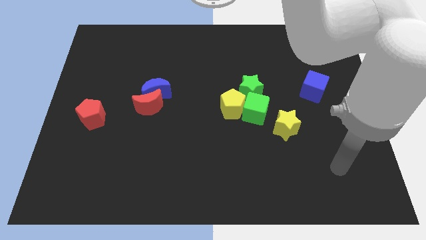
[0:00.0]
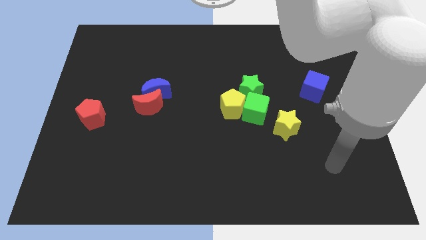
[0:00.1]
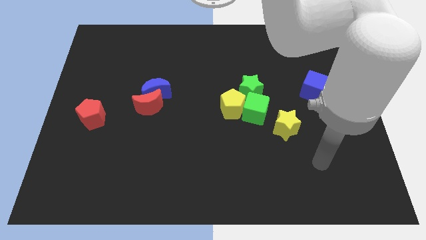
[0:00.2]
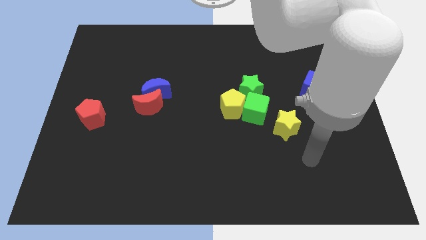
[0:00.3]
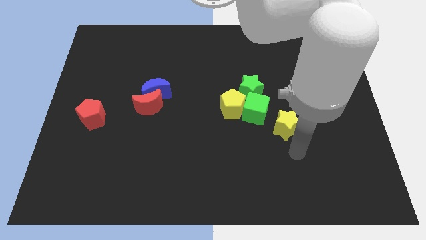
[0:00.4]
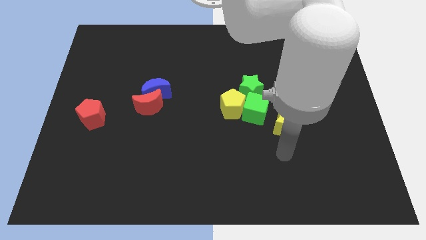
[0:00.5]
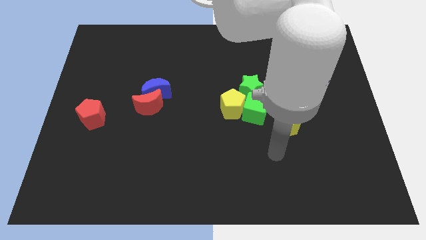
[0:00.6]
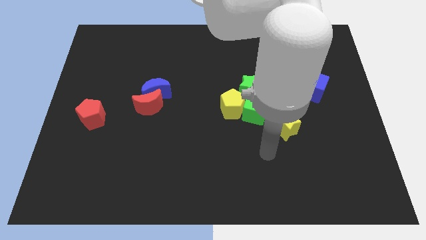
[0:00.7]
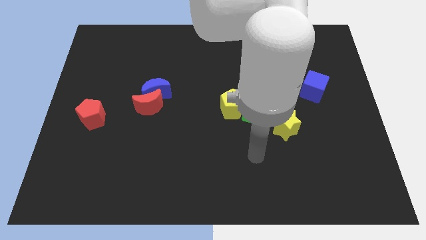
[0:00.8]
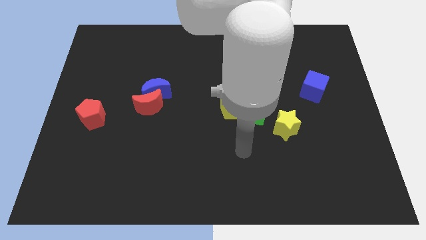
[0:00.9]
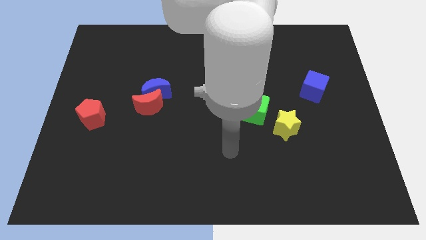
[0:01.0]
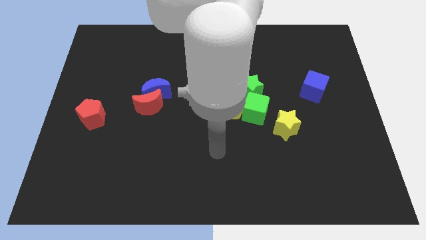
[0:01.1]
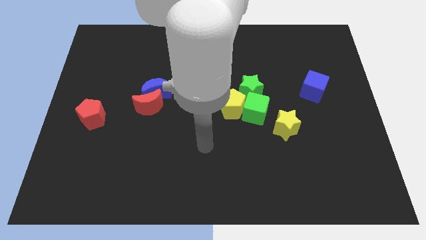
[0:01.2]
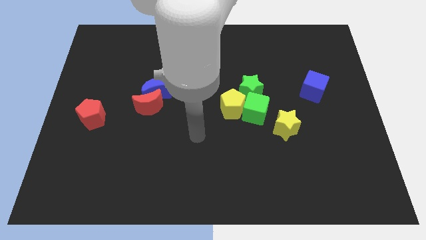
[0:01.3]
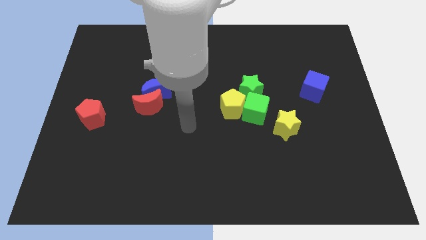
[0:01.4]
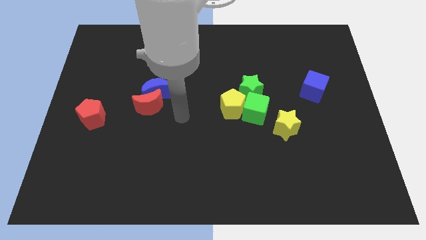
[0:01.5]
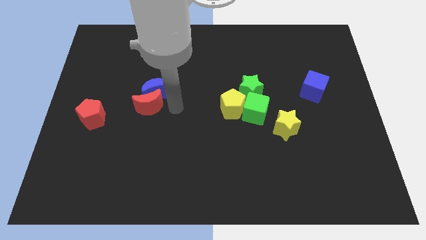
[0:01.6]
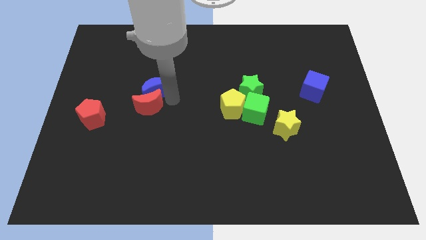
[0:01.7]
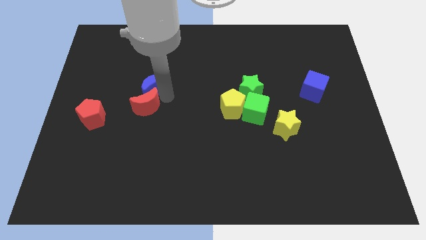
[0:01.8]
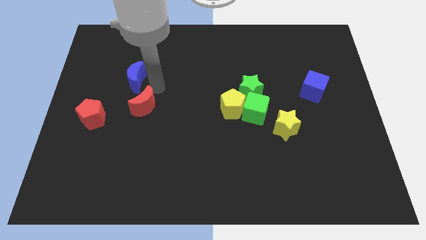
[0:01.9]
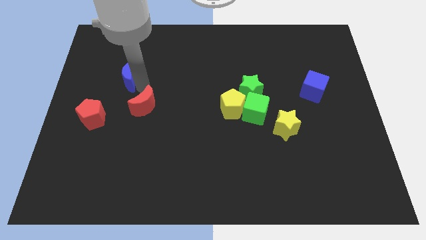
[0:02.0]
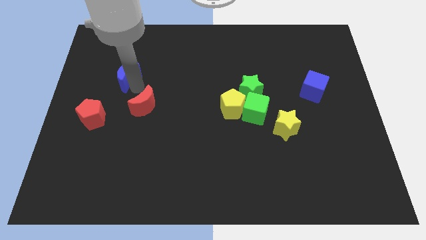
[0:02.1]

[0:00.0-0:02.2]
pull the red moon apart from the blue moon

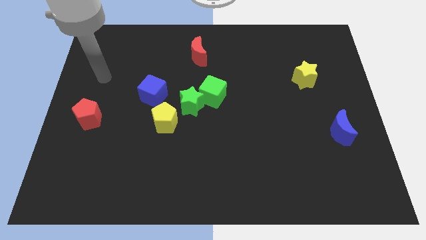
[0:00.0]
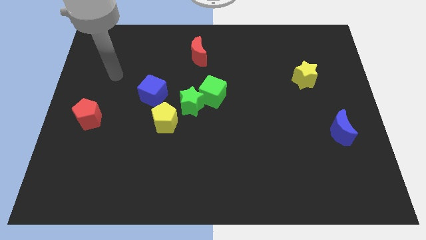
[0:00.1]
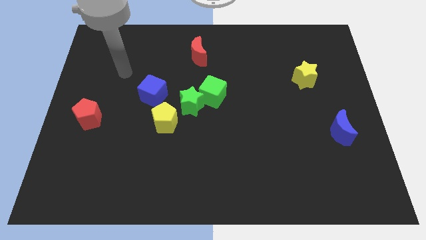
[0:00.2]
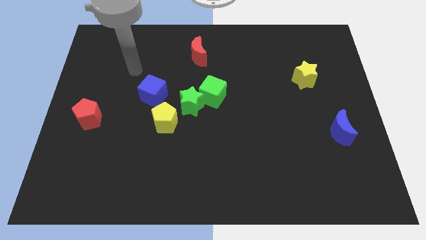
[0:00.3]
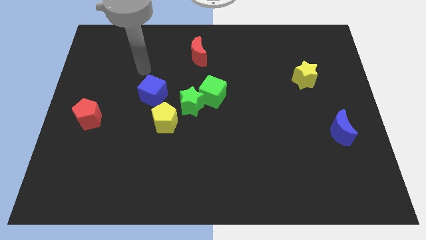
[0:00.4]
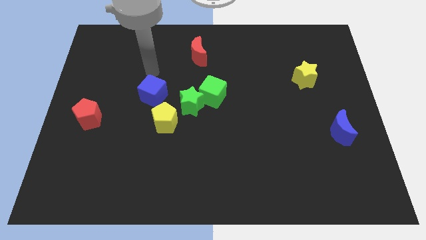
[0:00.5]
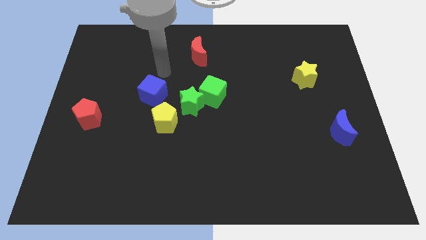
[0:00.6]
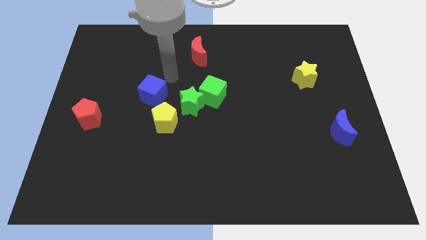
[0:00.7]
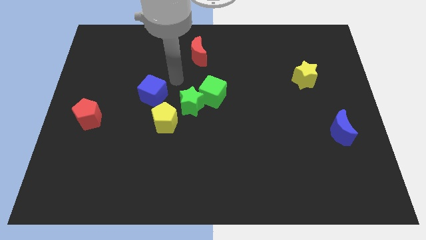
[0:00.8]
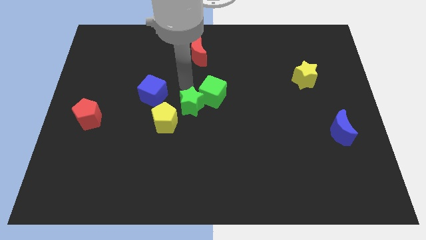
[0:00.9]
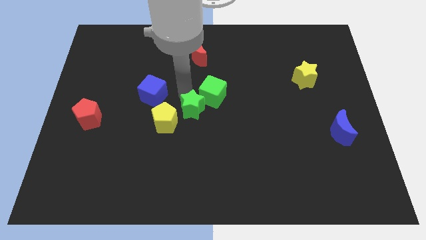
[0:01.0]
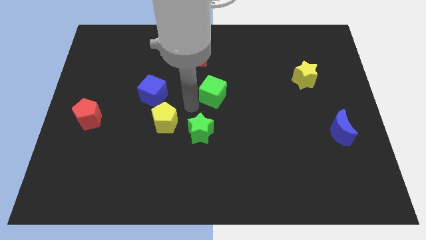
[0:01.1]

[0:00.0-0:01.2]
separate the green cube from the green star

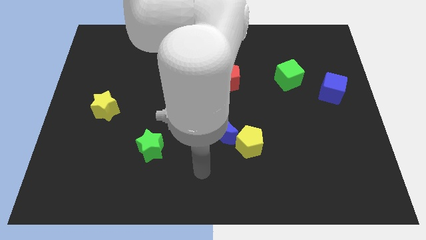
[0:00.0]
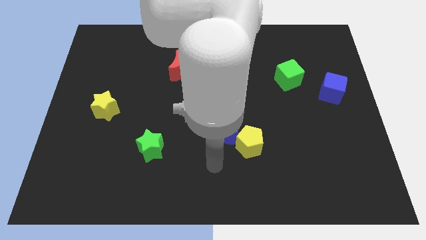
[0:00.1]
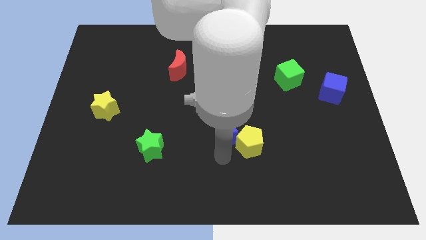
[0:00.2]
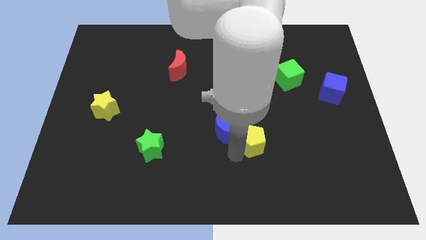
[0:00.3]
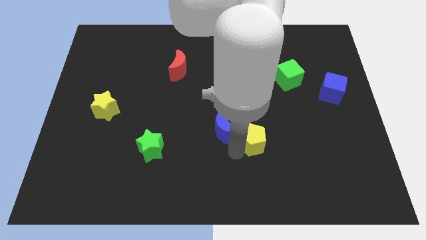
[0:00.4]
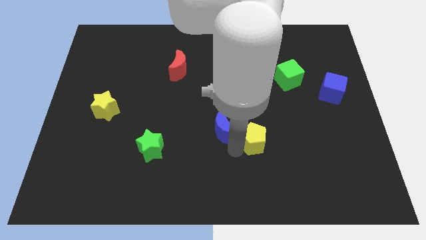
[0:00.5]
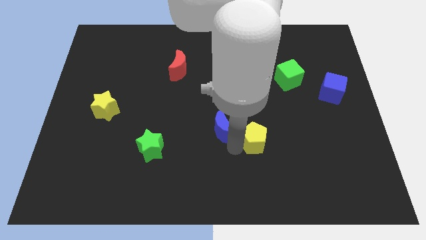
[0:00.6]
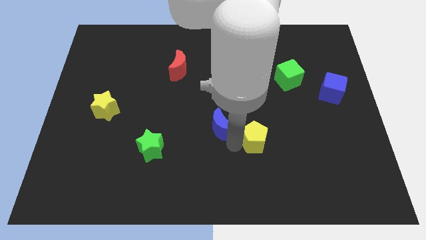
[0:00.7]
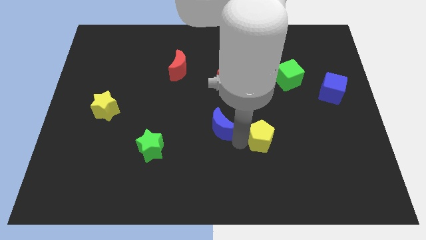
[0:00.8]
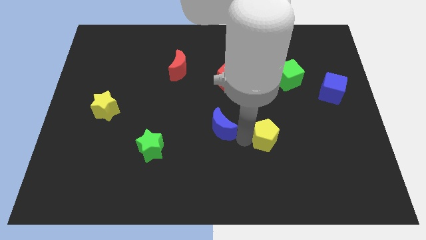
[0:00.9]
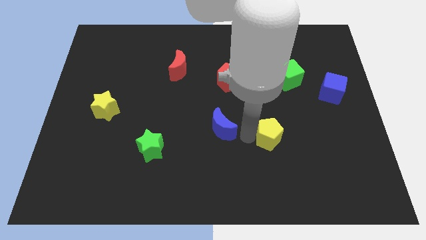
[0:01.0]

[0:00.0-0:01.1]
move the blue moon away from the yellow pentagon

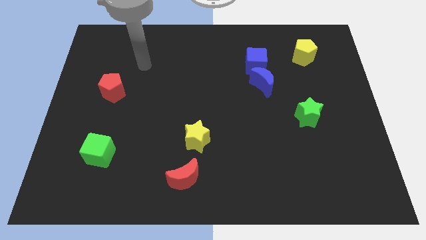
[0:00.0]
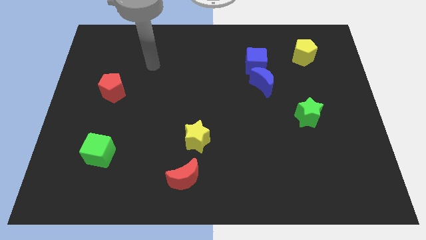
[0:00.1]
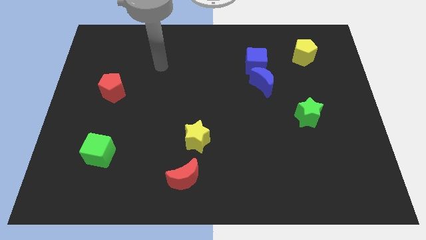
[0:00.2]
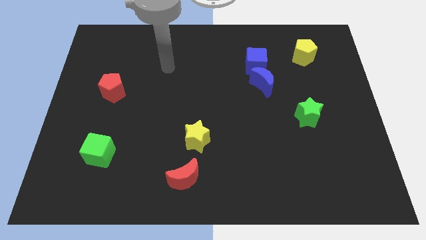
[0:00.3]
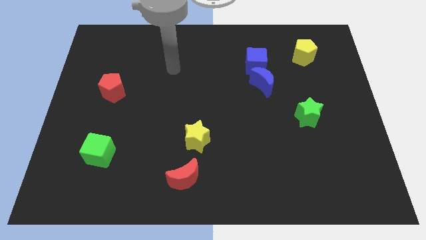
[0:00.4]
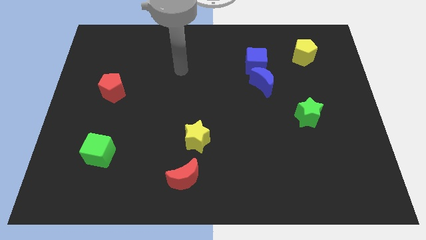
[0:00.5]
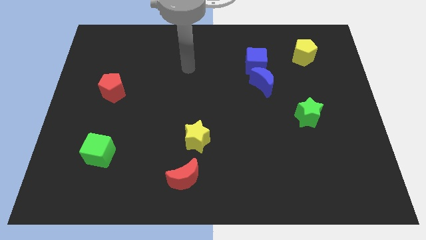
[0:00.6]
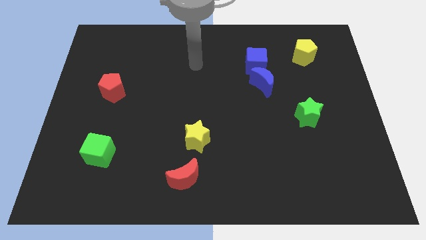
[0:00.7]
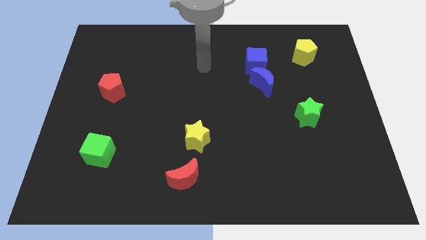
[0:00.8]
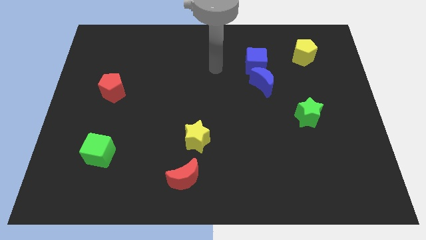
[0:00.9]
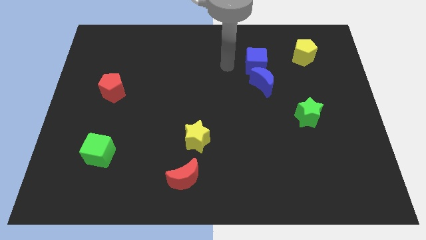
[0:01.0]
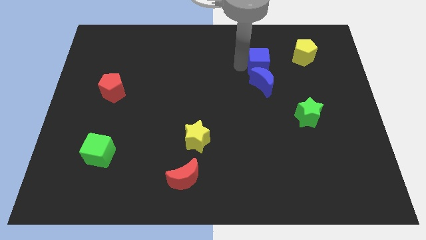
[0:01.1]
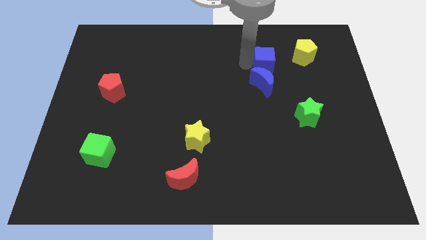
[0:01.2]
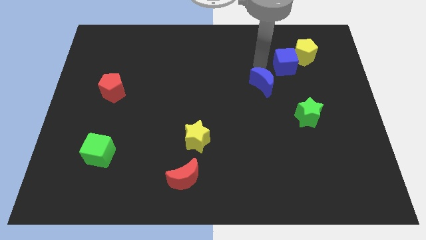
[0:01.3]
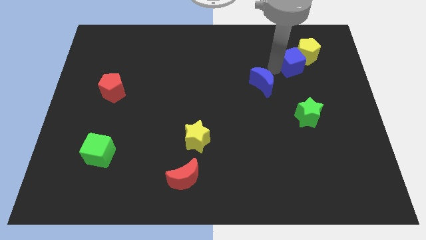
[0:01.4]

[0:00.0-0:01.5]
move the blue moon away from the blue cube

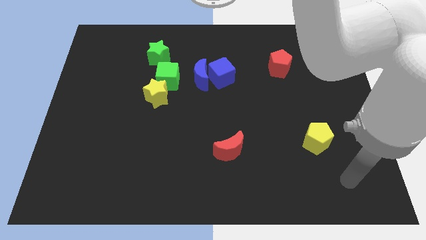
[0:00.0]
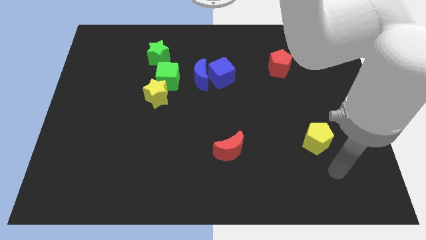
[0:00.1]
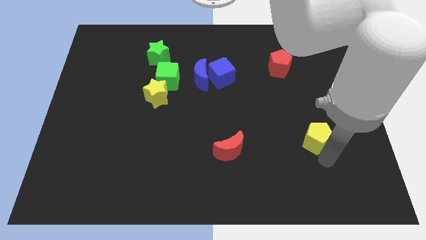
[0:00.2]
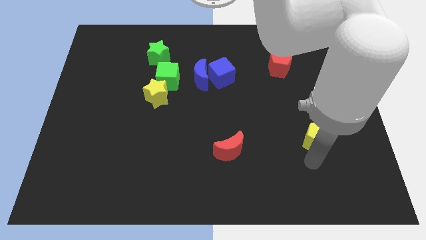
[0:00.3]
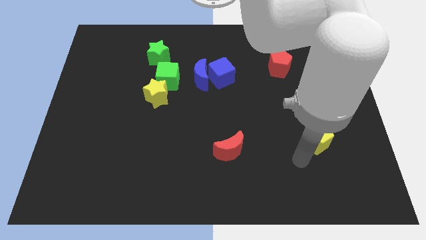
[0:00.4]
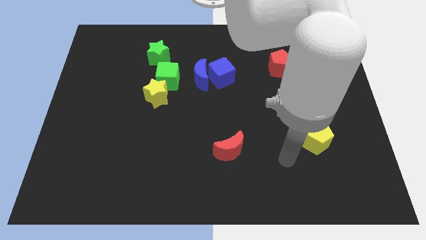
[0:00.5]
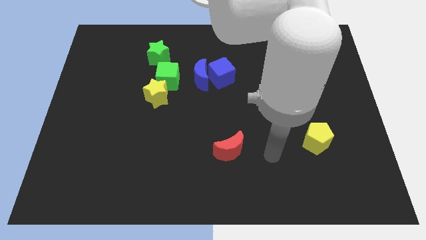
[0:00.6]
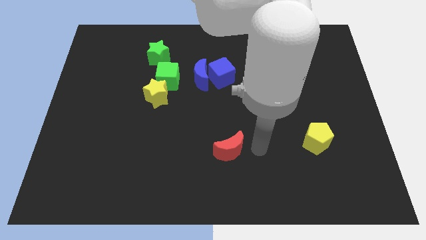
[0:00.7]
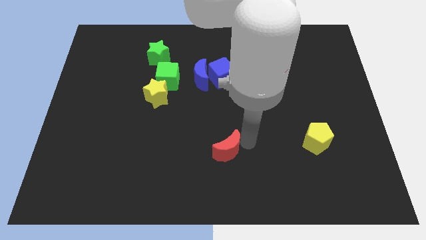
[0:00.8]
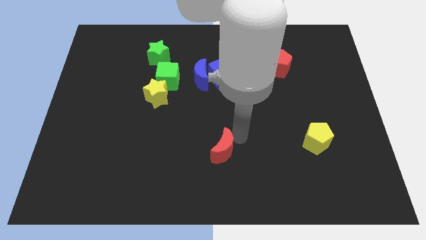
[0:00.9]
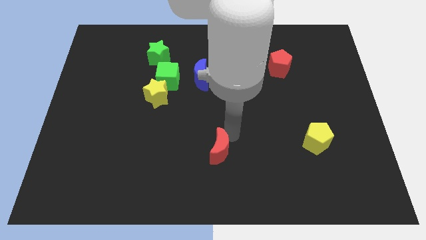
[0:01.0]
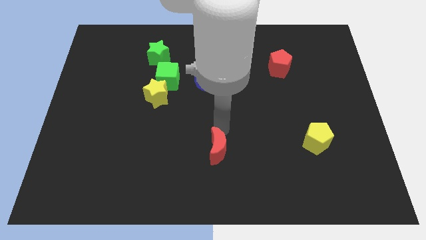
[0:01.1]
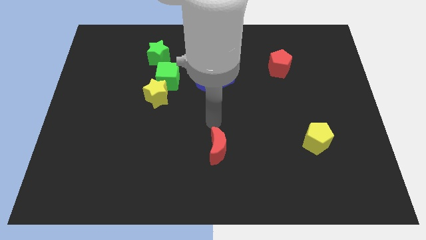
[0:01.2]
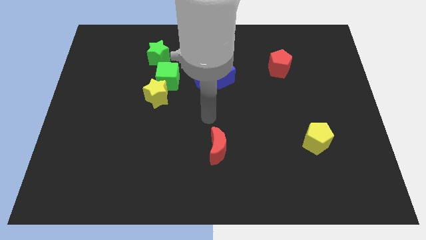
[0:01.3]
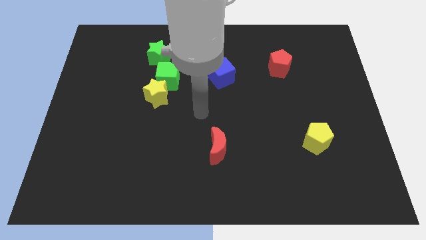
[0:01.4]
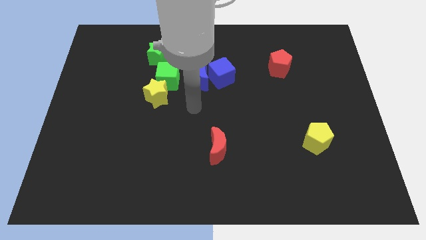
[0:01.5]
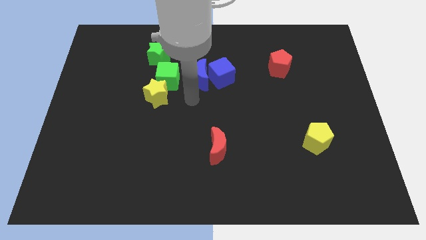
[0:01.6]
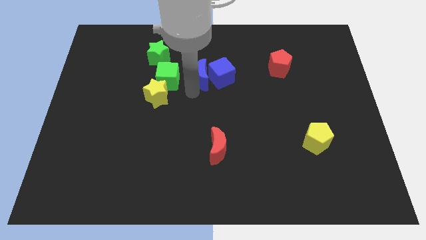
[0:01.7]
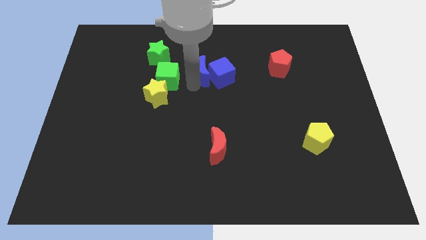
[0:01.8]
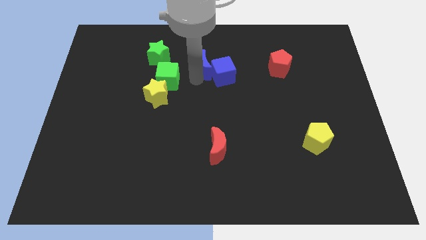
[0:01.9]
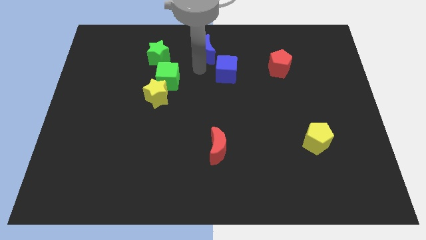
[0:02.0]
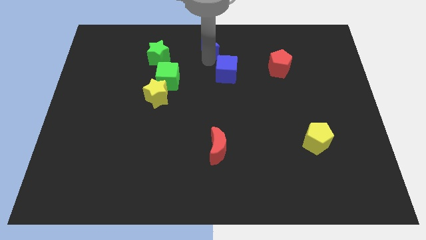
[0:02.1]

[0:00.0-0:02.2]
move the blue cube away from the blue moon

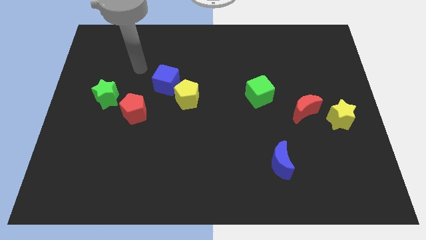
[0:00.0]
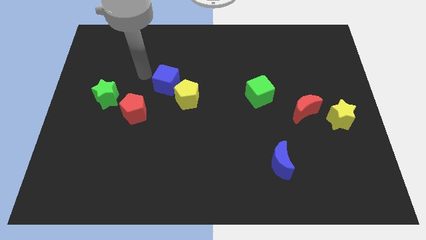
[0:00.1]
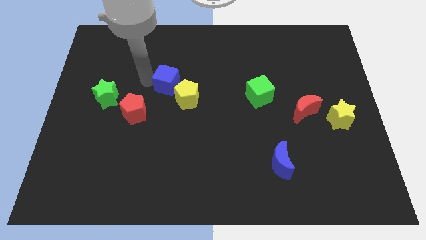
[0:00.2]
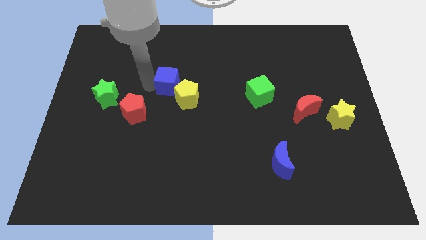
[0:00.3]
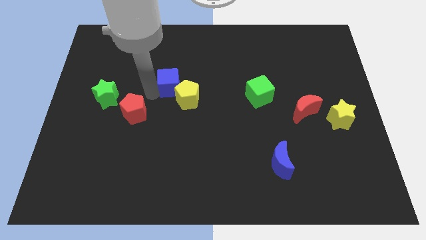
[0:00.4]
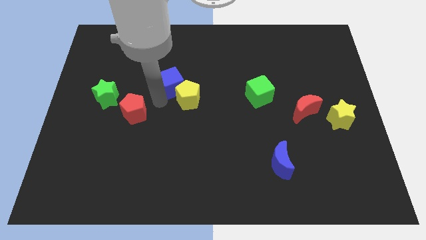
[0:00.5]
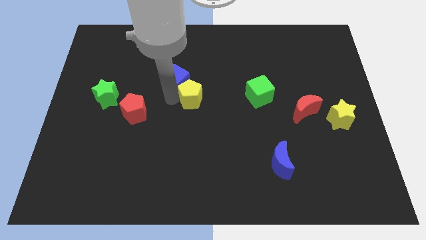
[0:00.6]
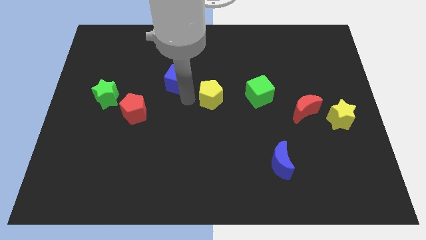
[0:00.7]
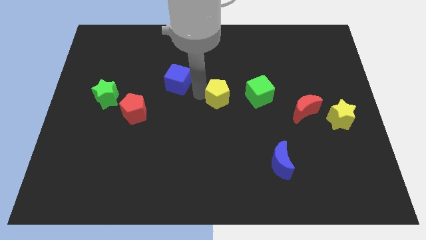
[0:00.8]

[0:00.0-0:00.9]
move the blue cube away from the yellow pentagon

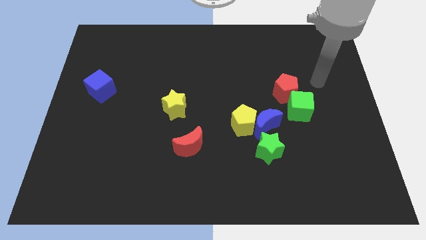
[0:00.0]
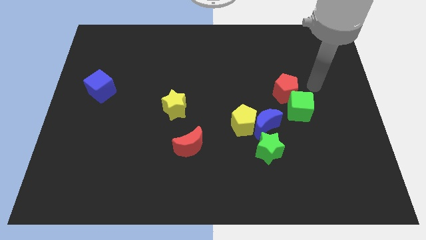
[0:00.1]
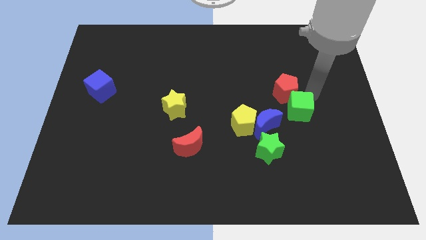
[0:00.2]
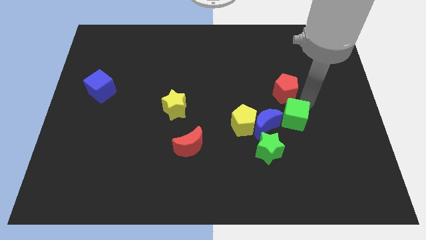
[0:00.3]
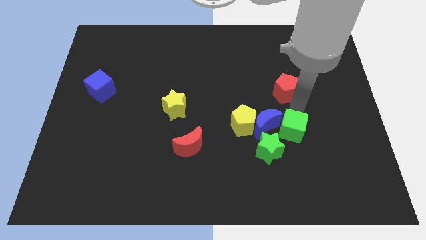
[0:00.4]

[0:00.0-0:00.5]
move the red pentagon away from the green cube
